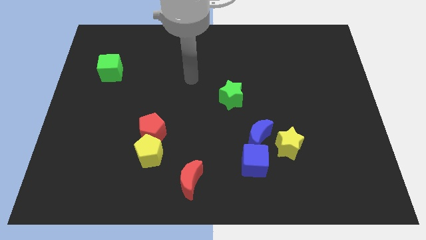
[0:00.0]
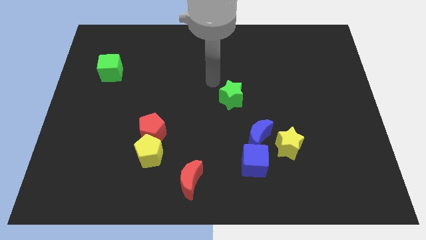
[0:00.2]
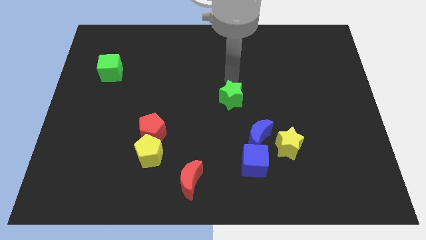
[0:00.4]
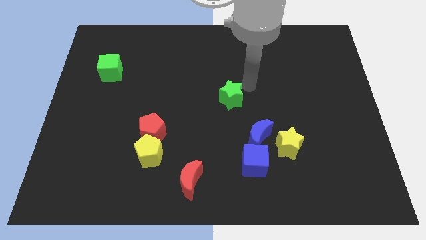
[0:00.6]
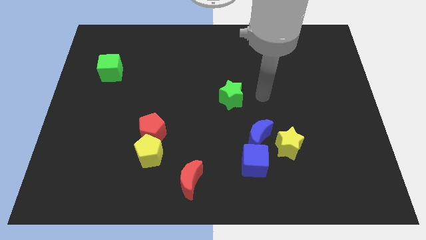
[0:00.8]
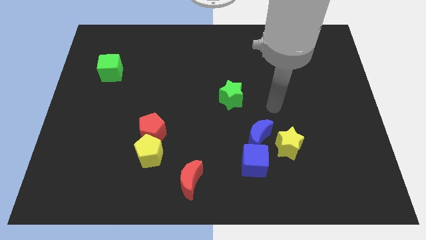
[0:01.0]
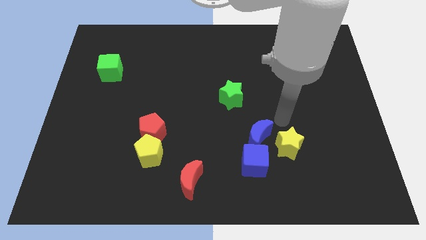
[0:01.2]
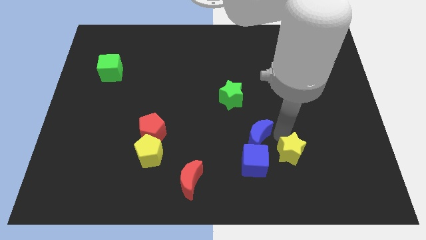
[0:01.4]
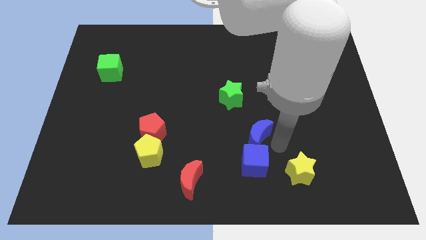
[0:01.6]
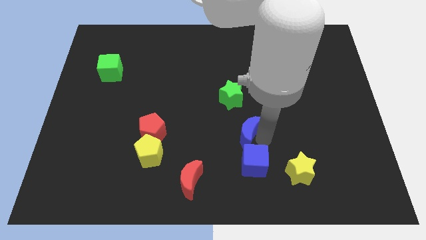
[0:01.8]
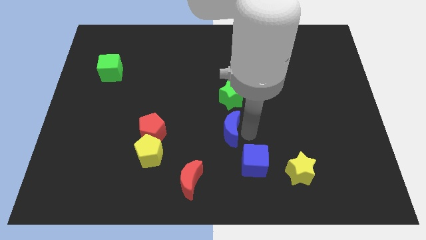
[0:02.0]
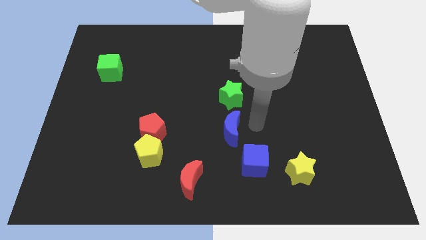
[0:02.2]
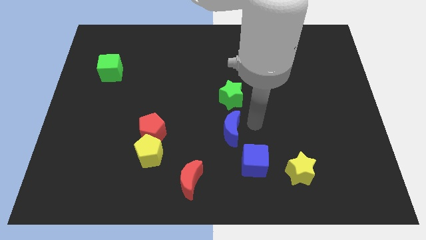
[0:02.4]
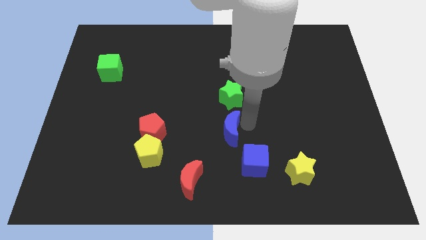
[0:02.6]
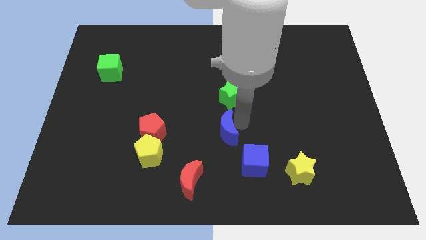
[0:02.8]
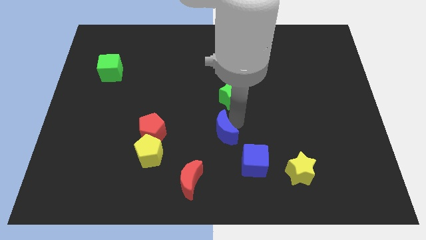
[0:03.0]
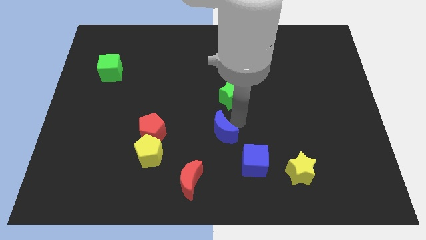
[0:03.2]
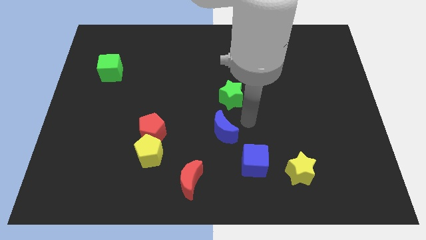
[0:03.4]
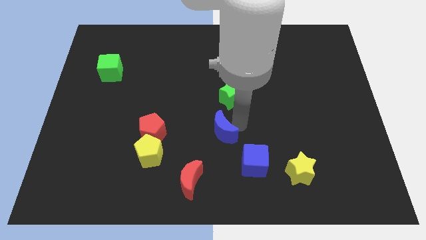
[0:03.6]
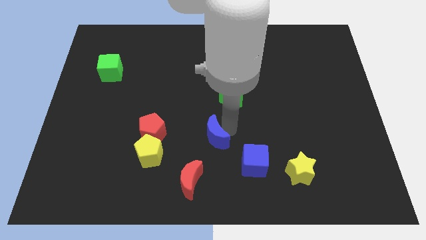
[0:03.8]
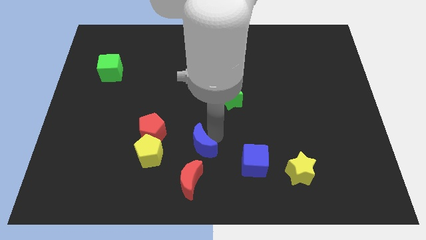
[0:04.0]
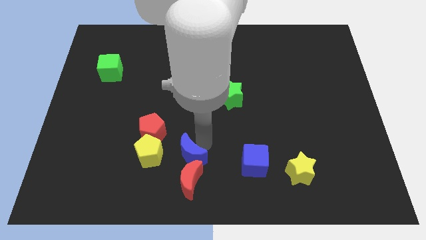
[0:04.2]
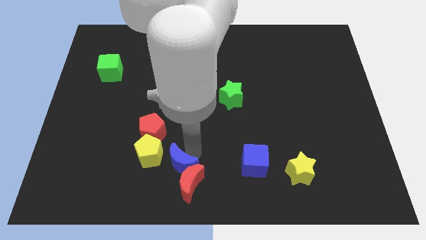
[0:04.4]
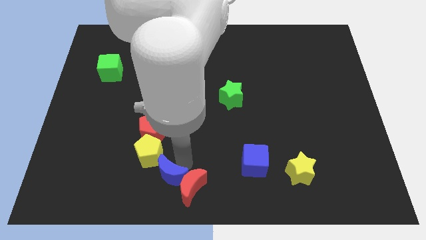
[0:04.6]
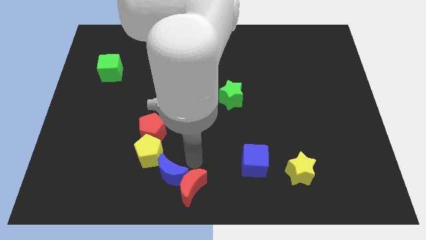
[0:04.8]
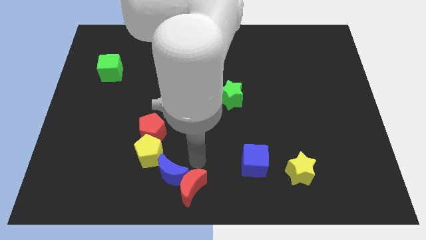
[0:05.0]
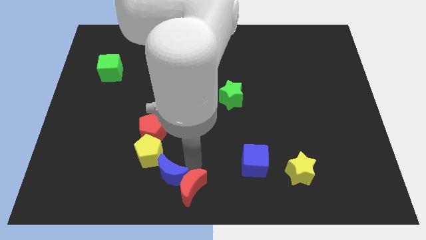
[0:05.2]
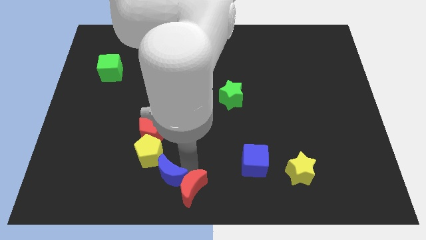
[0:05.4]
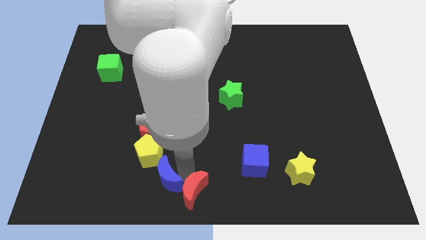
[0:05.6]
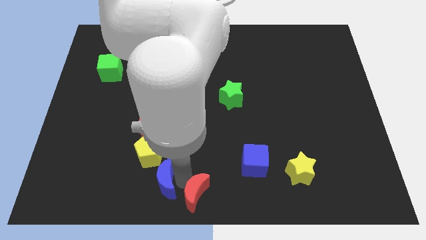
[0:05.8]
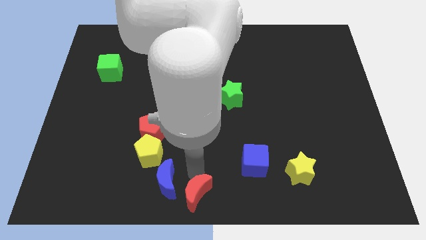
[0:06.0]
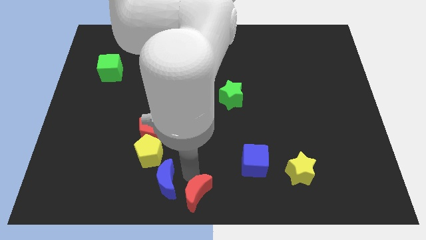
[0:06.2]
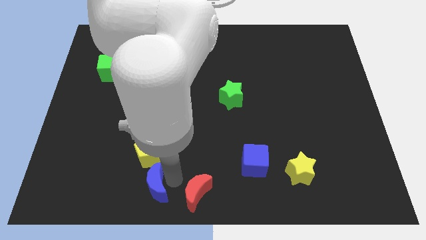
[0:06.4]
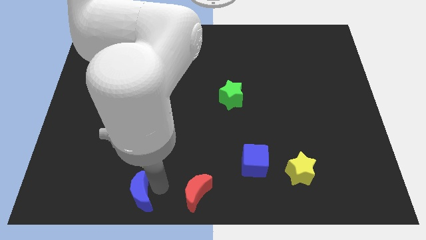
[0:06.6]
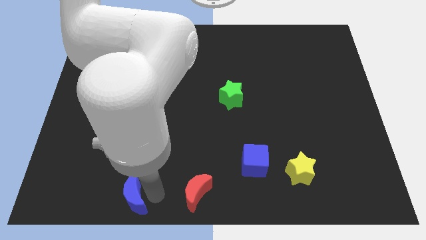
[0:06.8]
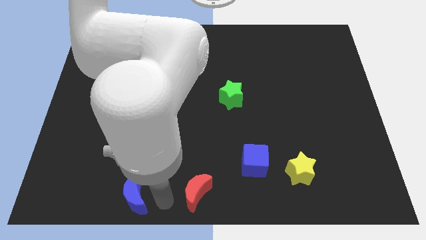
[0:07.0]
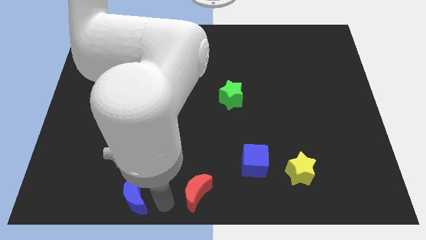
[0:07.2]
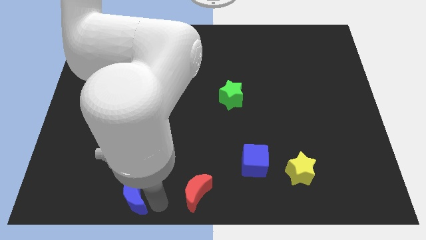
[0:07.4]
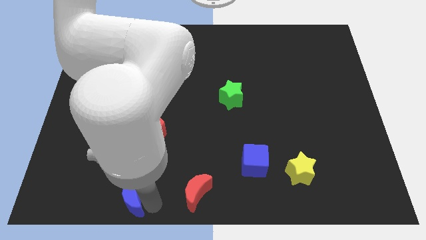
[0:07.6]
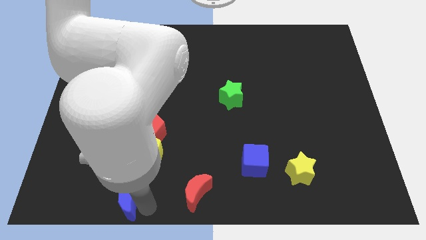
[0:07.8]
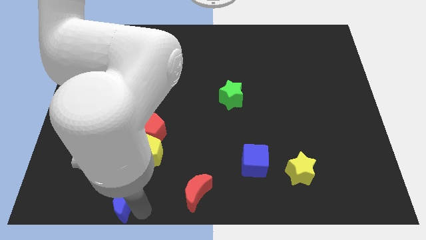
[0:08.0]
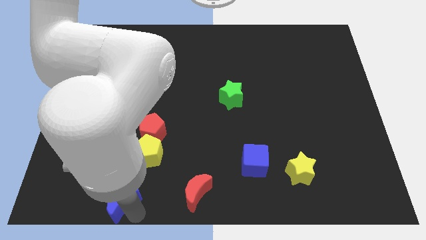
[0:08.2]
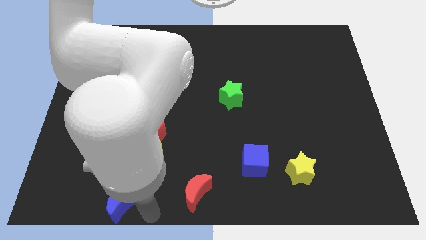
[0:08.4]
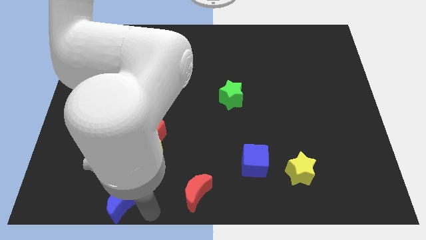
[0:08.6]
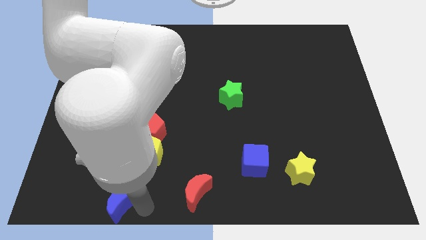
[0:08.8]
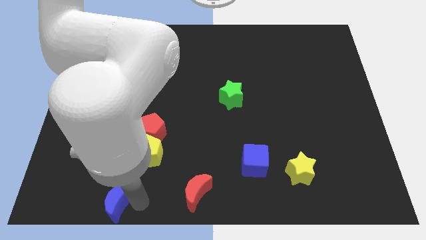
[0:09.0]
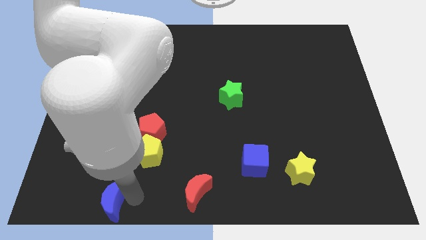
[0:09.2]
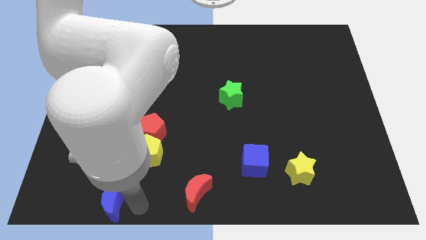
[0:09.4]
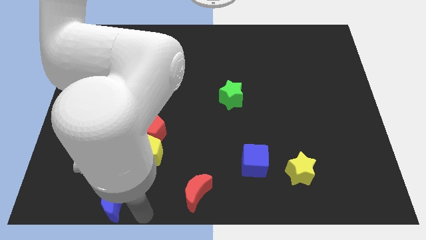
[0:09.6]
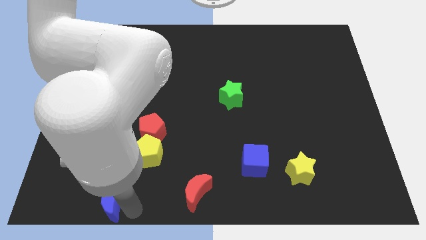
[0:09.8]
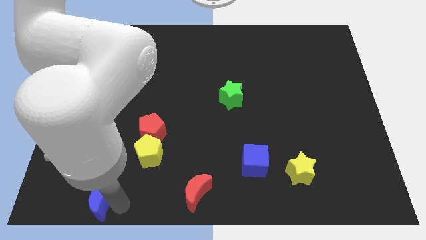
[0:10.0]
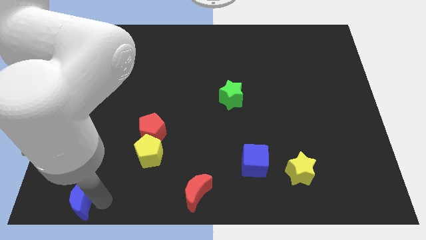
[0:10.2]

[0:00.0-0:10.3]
move the blue moon to the bottom left of the board

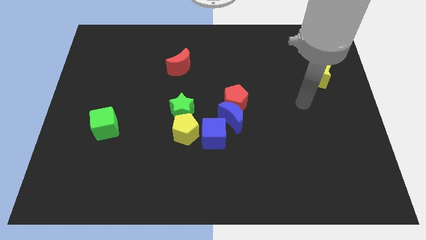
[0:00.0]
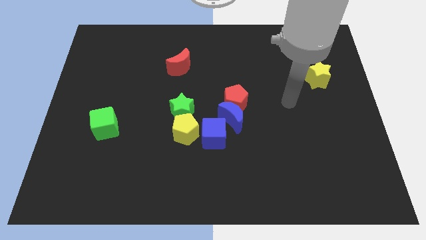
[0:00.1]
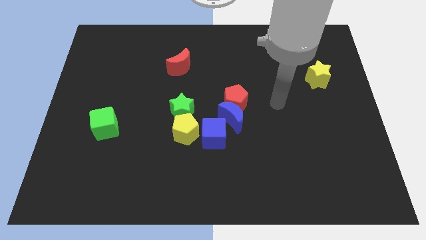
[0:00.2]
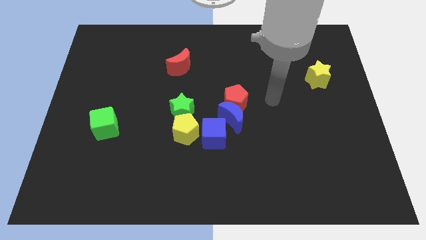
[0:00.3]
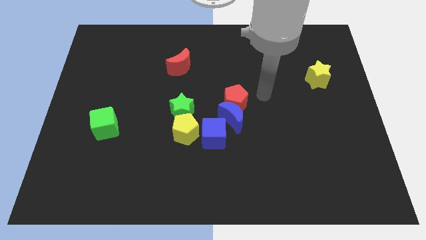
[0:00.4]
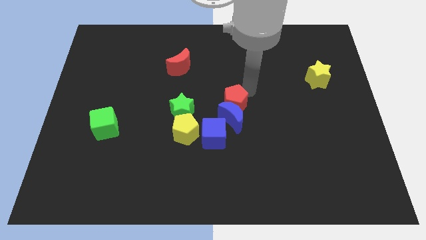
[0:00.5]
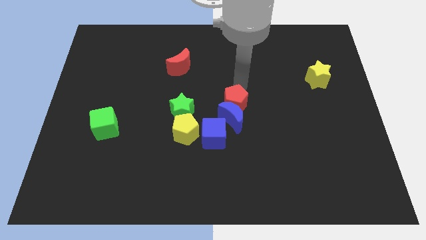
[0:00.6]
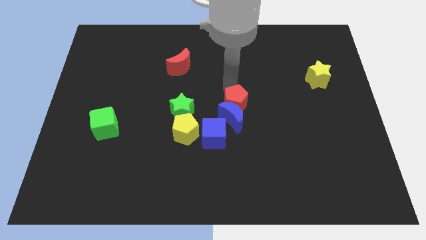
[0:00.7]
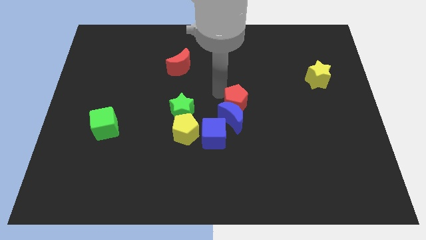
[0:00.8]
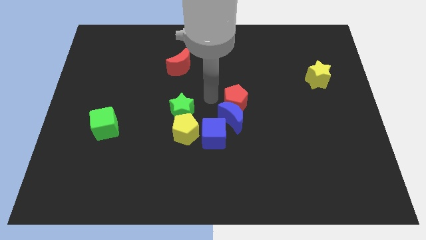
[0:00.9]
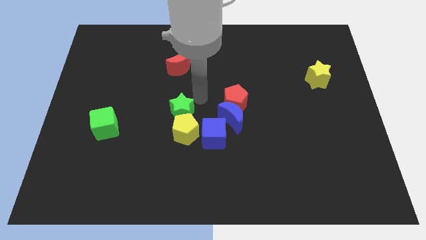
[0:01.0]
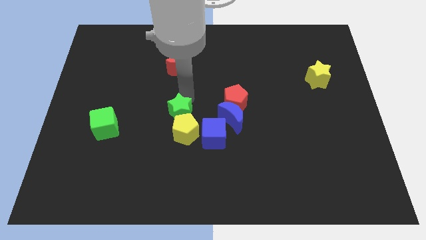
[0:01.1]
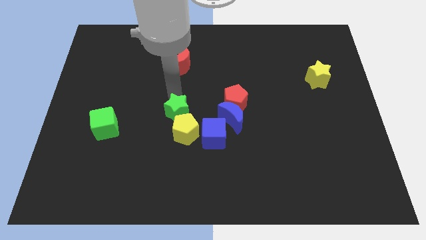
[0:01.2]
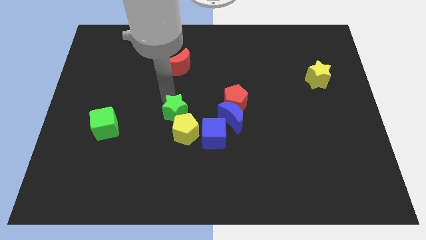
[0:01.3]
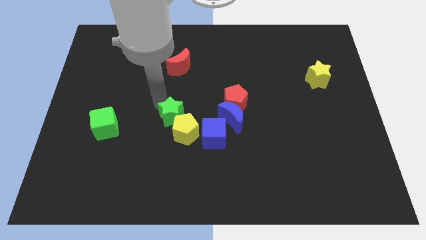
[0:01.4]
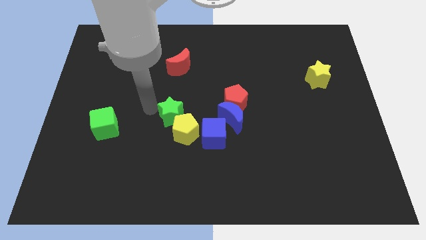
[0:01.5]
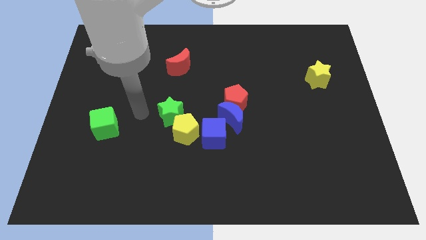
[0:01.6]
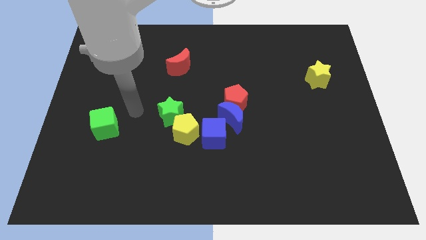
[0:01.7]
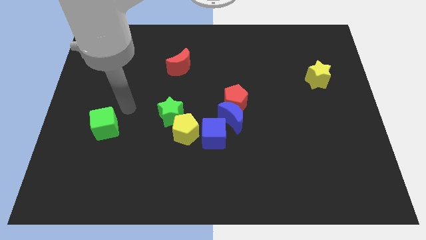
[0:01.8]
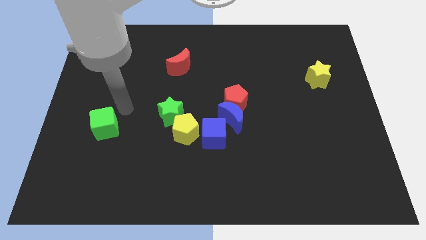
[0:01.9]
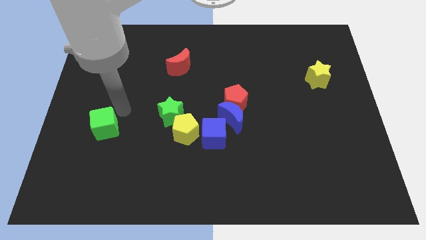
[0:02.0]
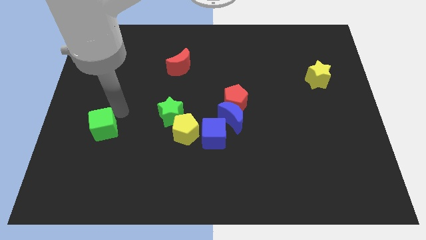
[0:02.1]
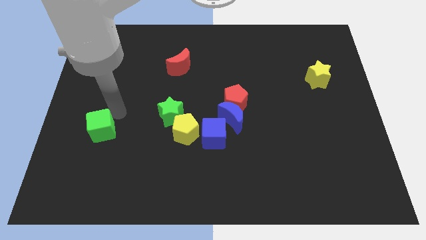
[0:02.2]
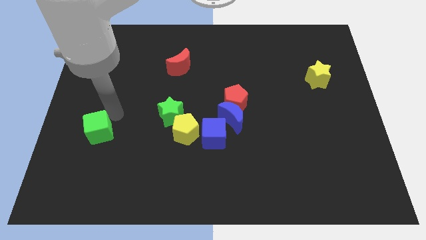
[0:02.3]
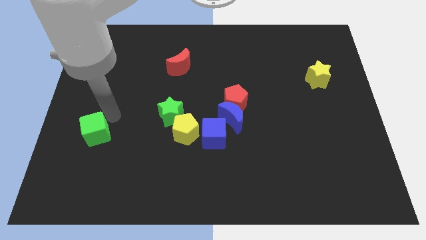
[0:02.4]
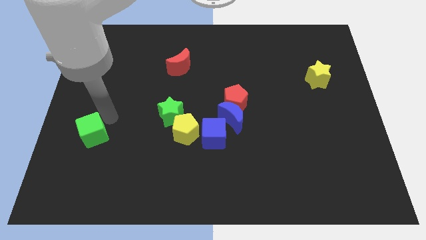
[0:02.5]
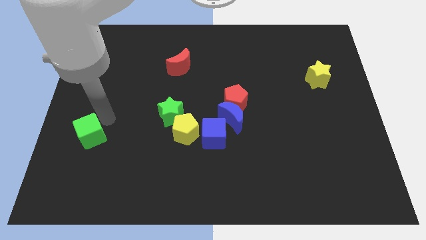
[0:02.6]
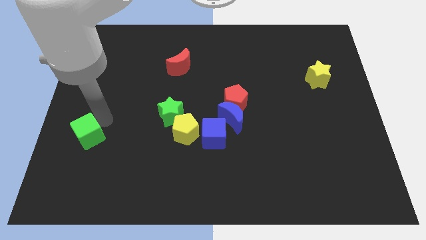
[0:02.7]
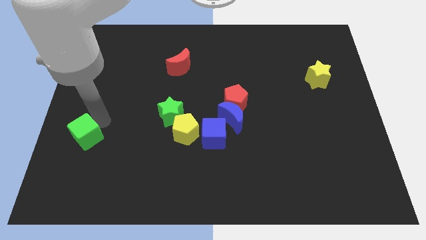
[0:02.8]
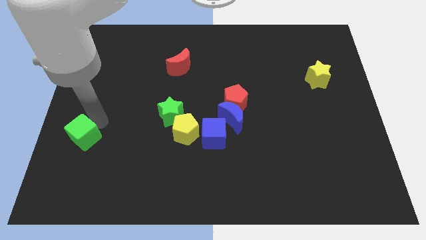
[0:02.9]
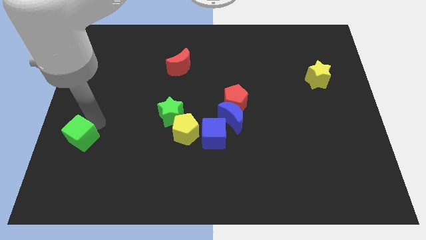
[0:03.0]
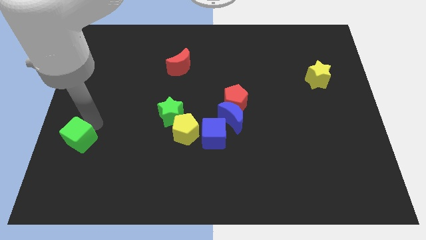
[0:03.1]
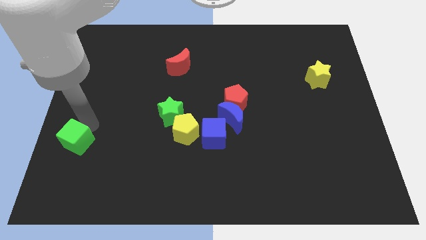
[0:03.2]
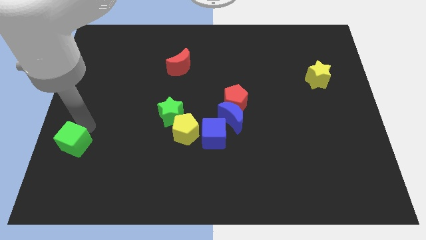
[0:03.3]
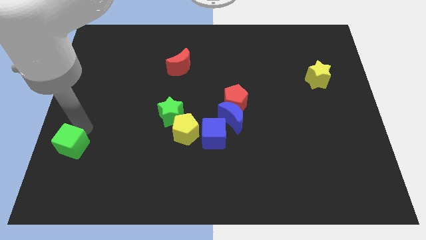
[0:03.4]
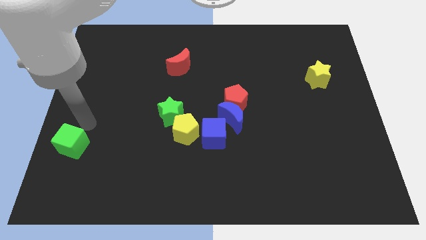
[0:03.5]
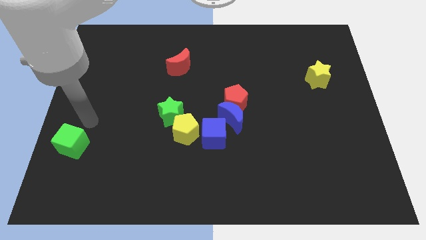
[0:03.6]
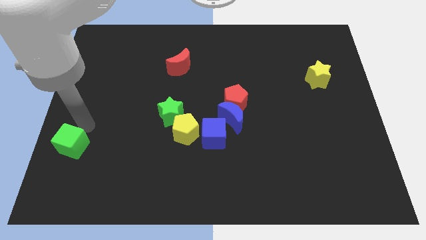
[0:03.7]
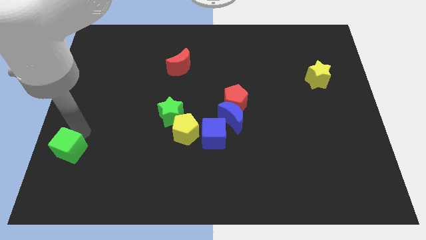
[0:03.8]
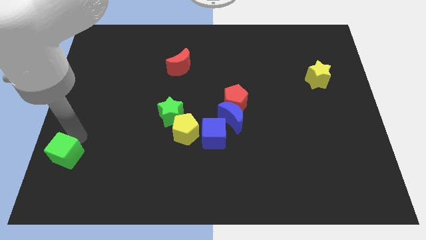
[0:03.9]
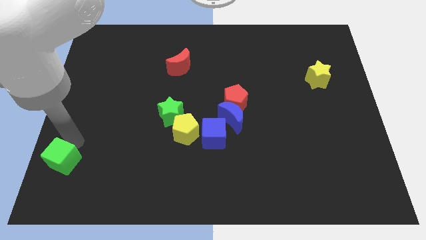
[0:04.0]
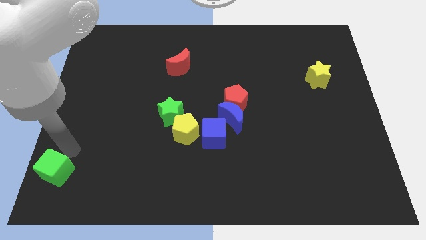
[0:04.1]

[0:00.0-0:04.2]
slide the green cube to the bottom left of the board
